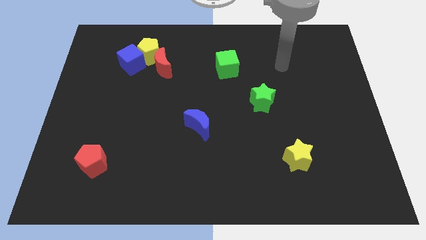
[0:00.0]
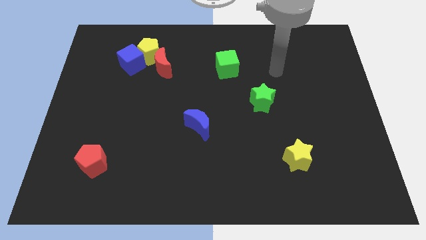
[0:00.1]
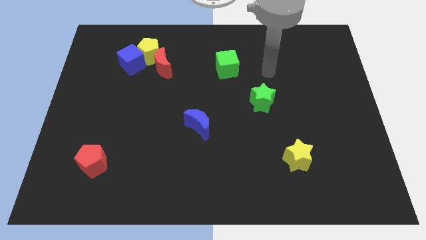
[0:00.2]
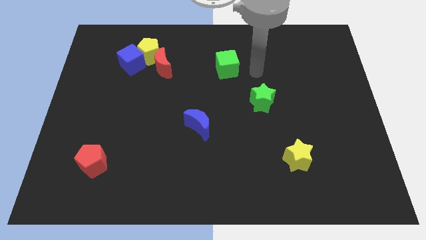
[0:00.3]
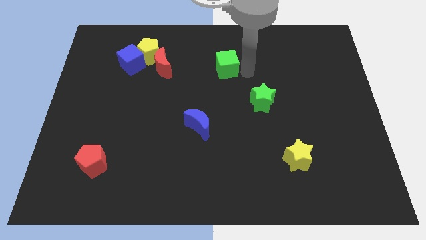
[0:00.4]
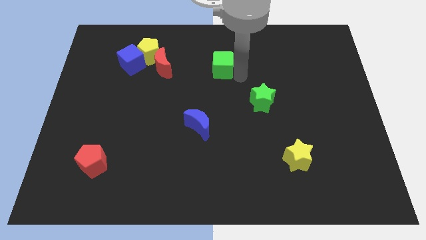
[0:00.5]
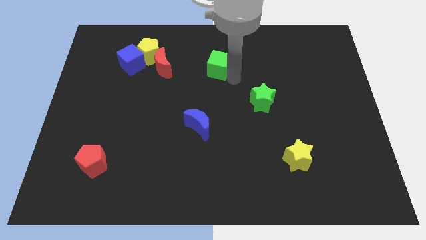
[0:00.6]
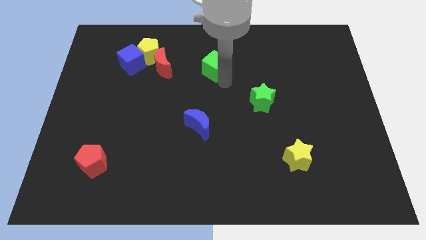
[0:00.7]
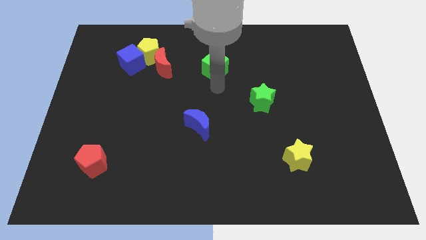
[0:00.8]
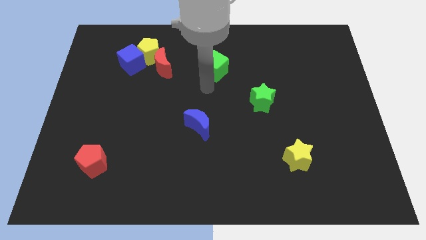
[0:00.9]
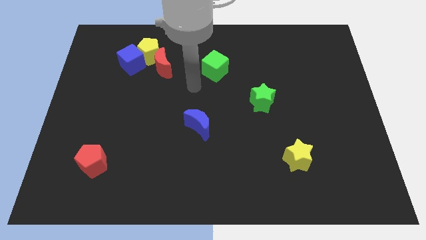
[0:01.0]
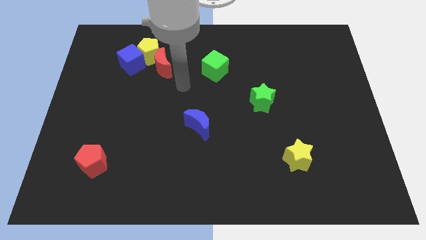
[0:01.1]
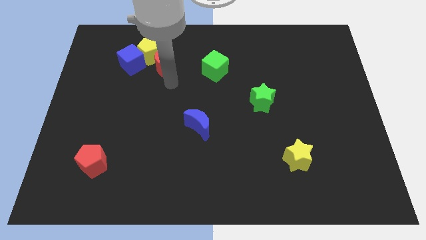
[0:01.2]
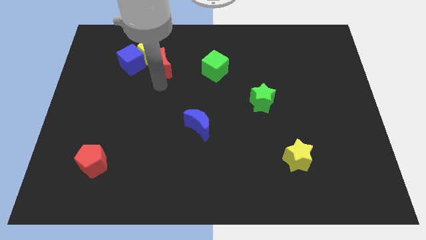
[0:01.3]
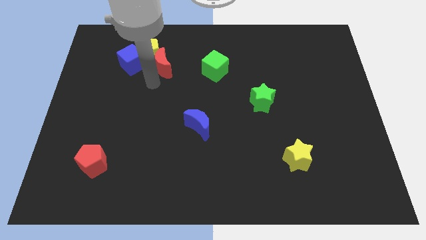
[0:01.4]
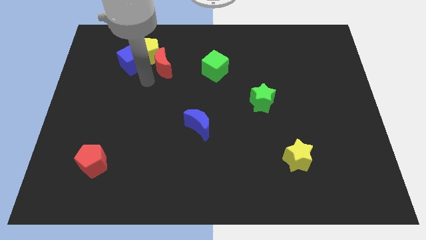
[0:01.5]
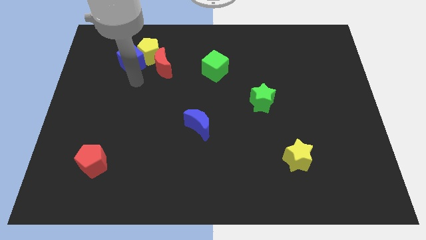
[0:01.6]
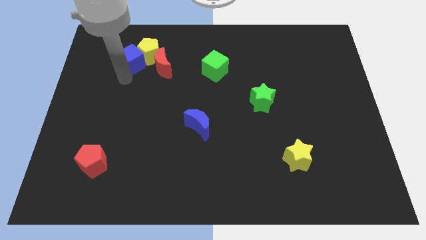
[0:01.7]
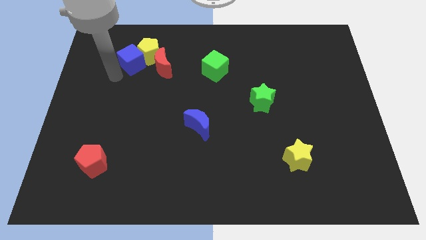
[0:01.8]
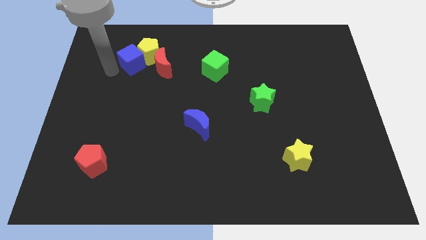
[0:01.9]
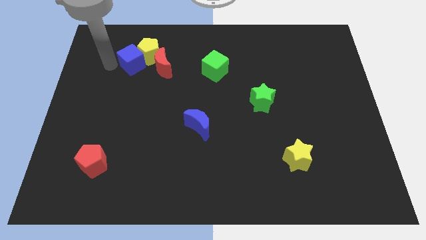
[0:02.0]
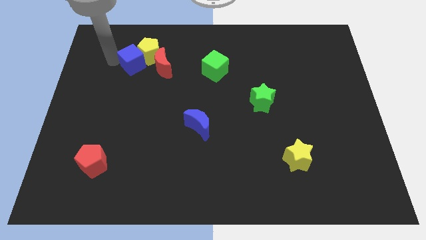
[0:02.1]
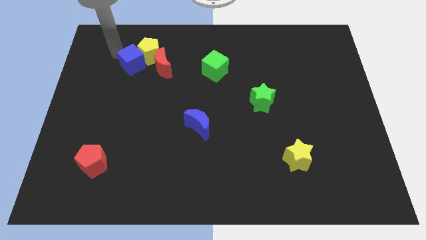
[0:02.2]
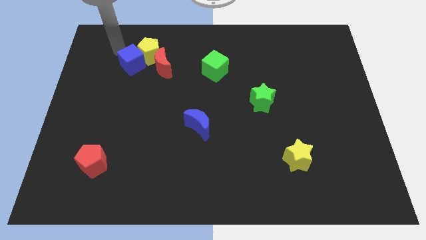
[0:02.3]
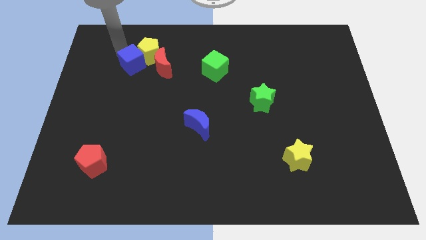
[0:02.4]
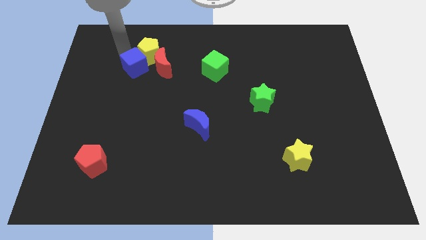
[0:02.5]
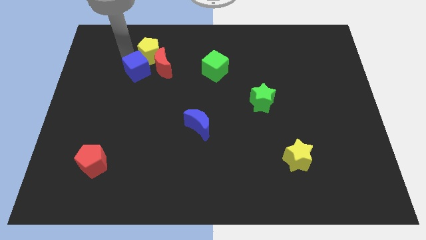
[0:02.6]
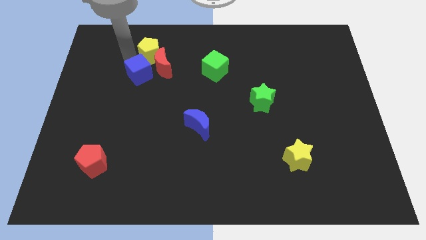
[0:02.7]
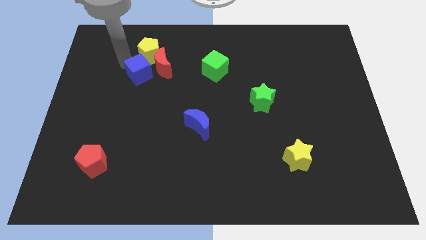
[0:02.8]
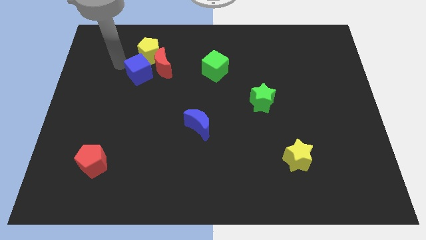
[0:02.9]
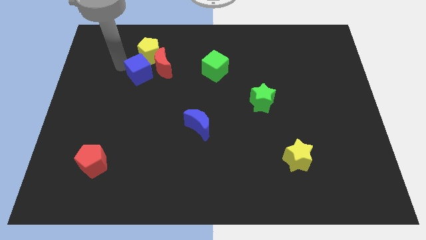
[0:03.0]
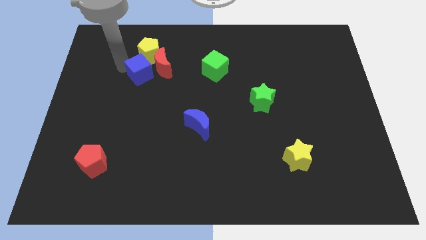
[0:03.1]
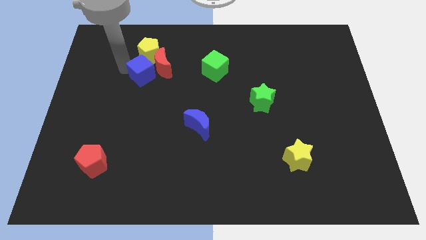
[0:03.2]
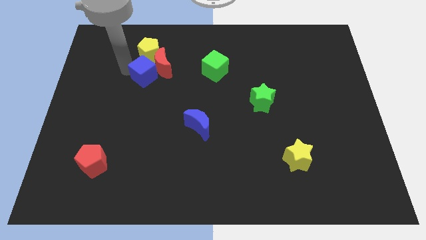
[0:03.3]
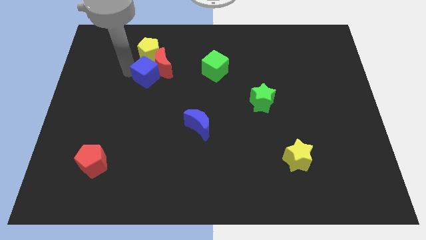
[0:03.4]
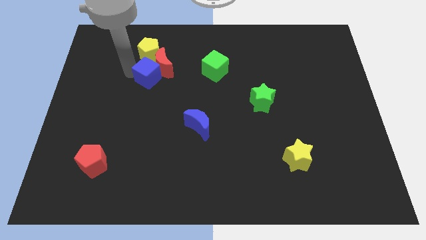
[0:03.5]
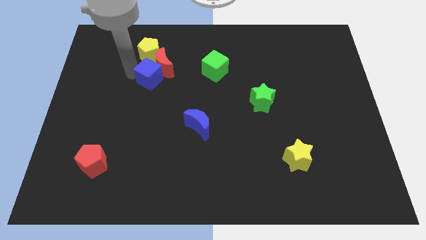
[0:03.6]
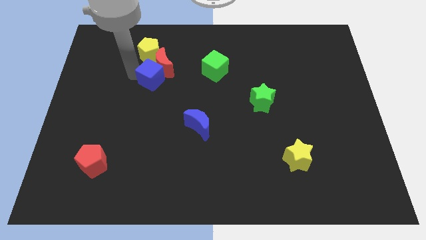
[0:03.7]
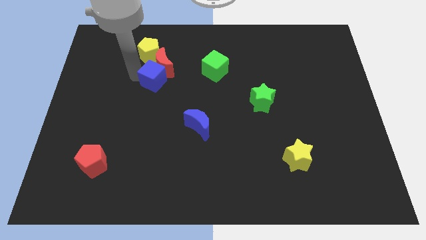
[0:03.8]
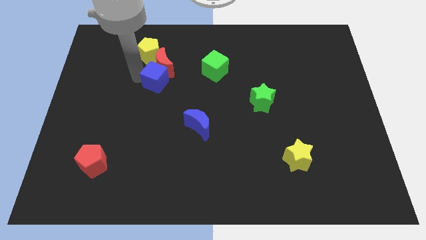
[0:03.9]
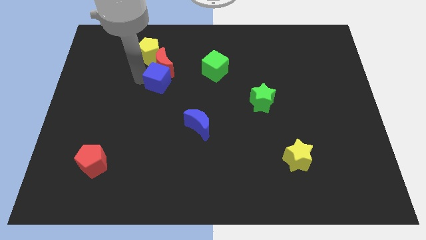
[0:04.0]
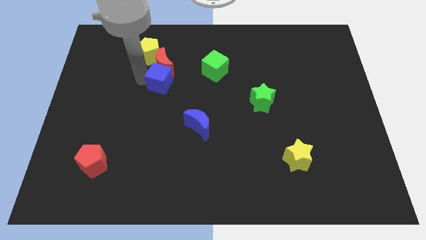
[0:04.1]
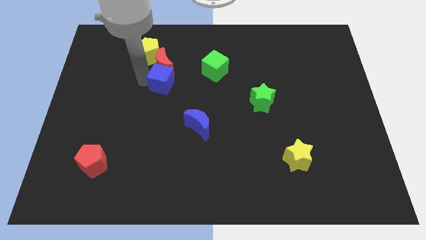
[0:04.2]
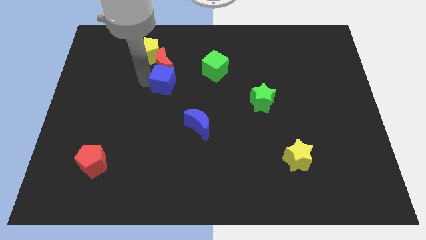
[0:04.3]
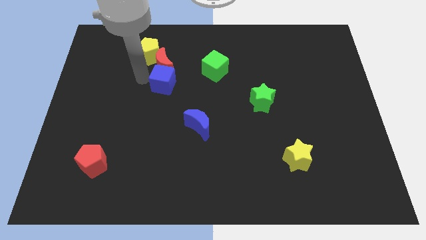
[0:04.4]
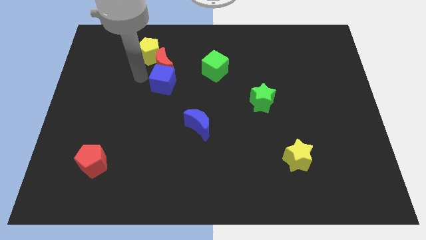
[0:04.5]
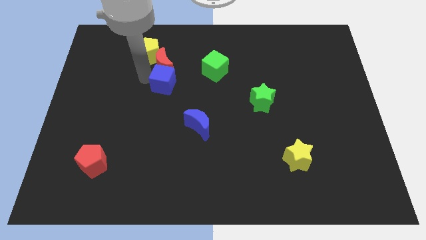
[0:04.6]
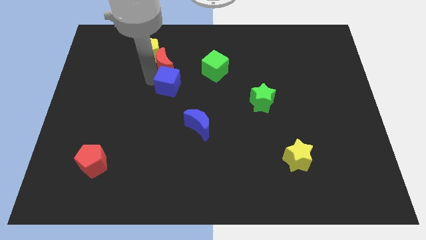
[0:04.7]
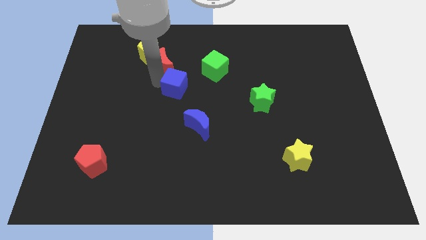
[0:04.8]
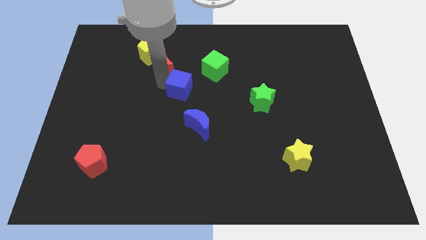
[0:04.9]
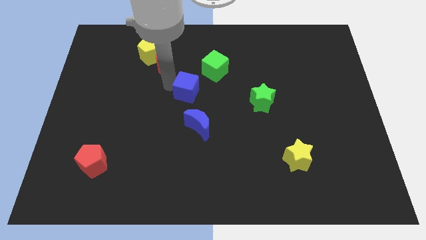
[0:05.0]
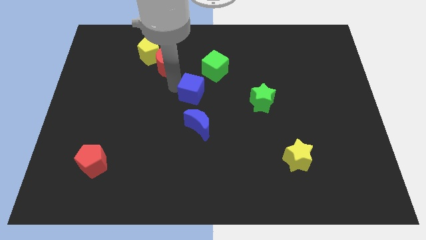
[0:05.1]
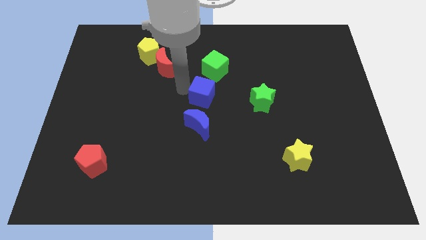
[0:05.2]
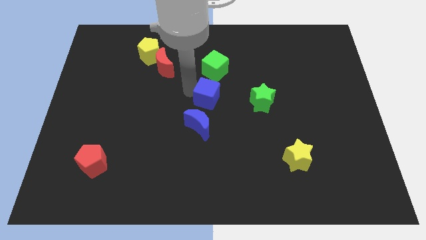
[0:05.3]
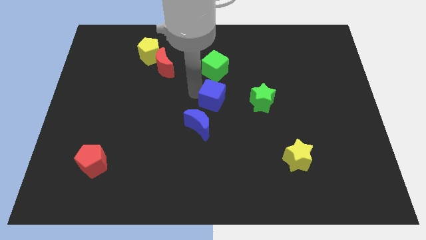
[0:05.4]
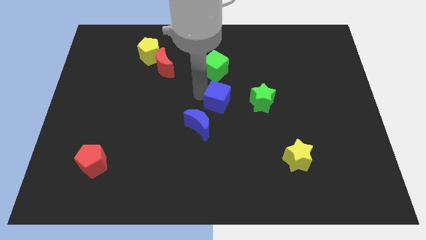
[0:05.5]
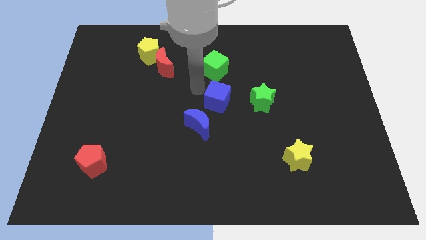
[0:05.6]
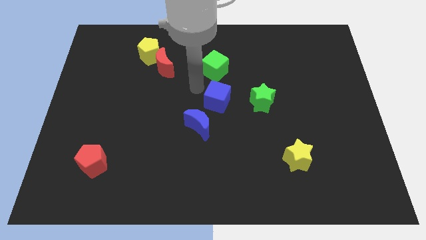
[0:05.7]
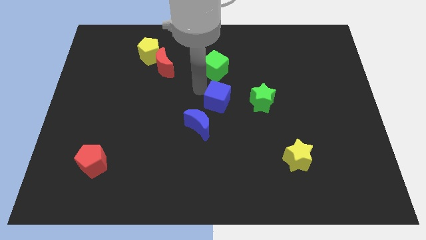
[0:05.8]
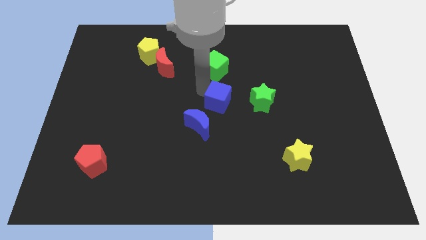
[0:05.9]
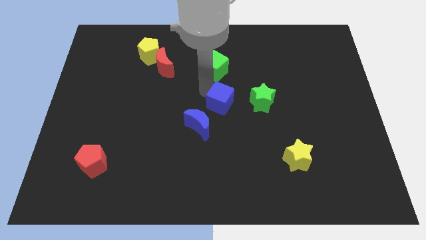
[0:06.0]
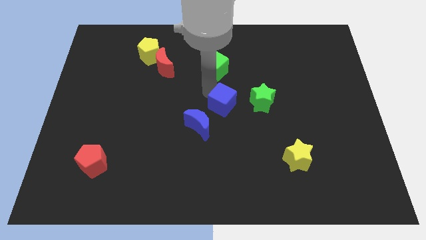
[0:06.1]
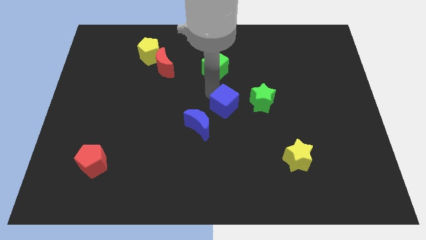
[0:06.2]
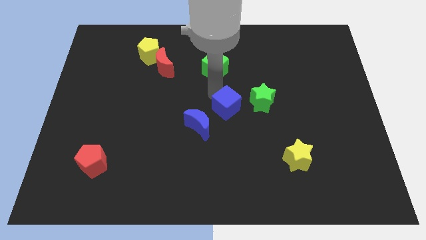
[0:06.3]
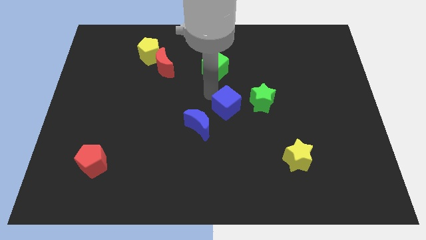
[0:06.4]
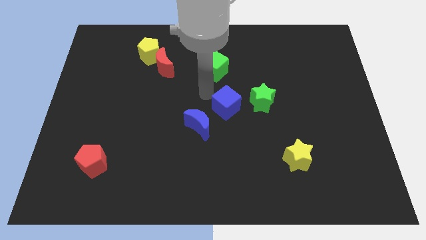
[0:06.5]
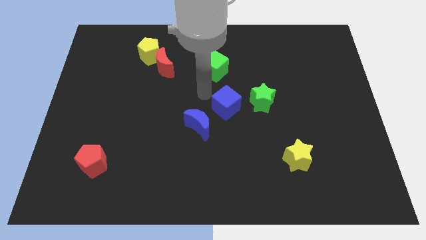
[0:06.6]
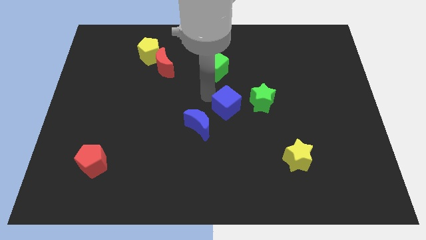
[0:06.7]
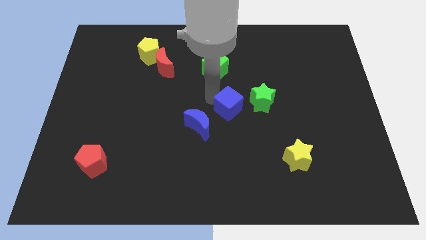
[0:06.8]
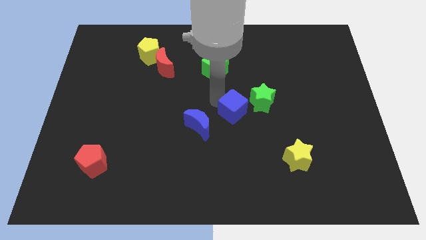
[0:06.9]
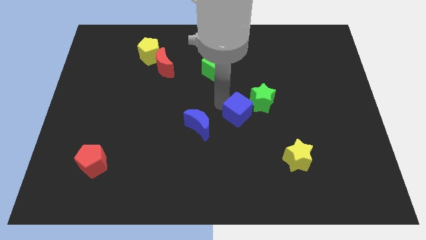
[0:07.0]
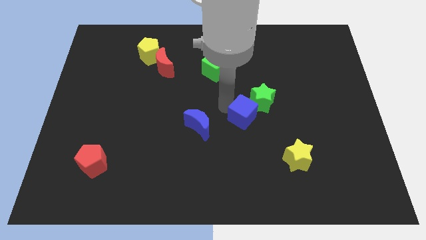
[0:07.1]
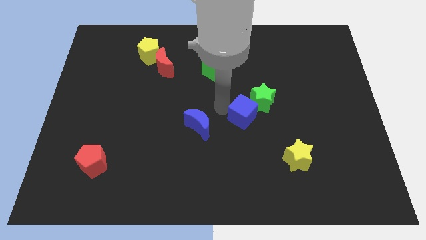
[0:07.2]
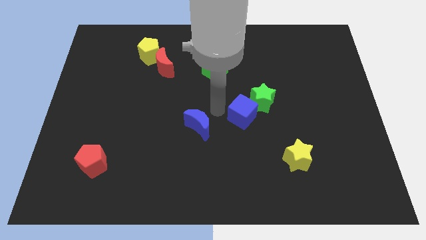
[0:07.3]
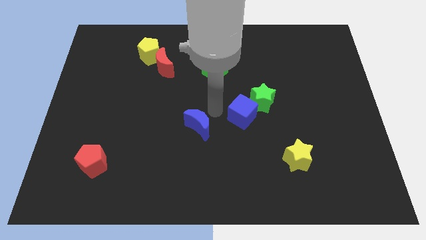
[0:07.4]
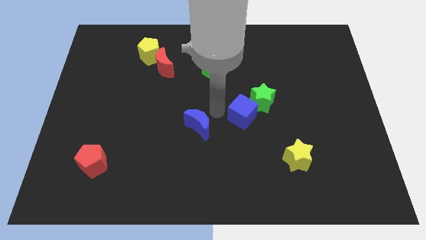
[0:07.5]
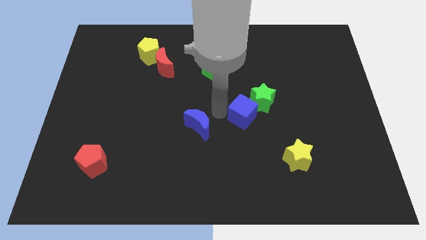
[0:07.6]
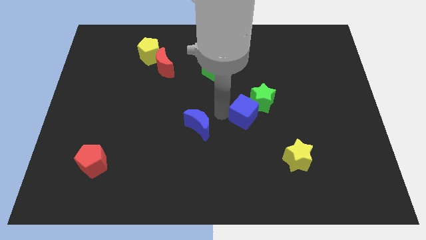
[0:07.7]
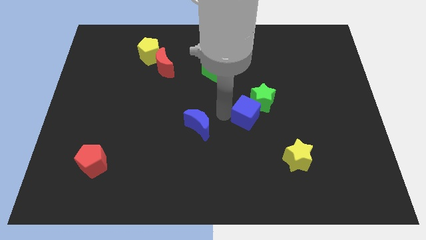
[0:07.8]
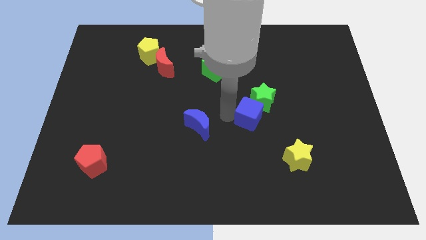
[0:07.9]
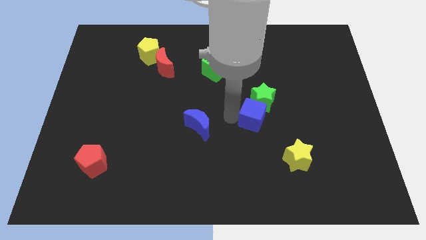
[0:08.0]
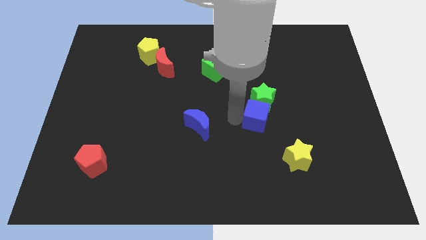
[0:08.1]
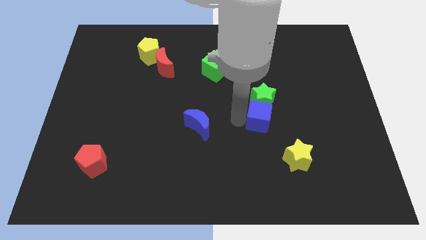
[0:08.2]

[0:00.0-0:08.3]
push the blue cube diagonally down and to the right of the green star
